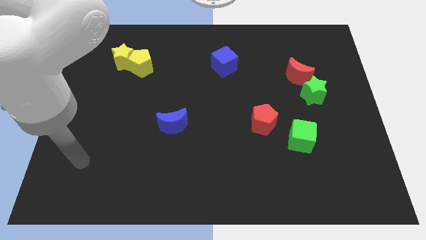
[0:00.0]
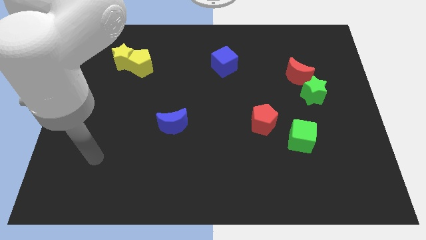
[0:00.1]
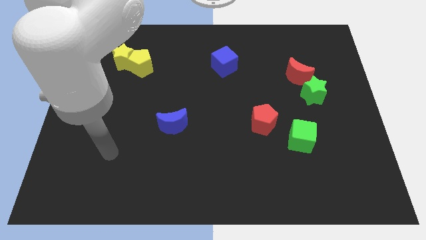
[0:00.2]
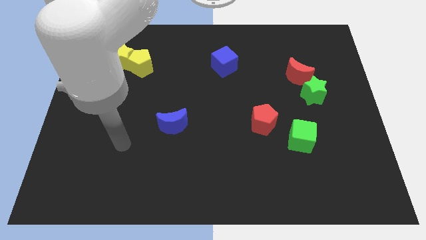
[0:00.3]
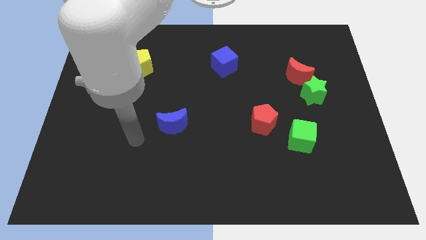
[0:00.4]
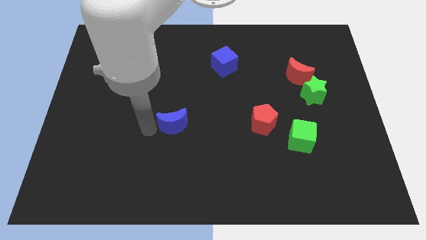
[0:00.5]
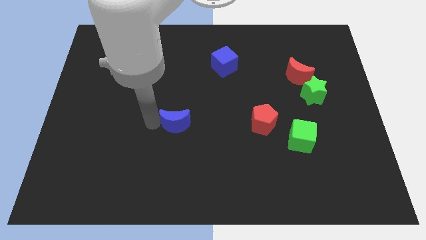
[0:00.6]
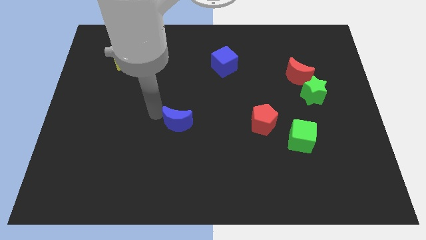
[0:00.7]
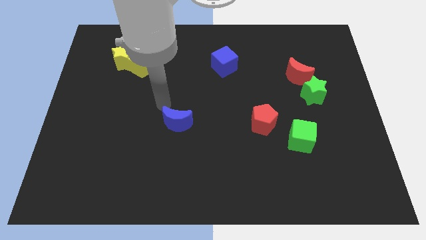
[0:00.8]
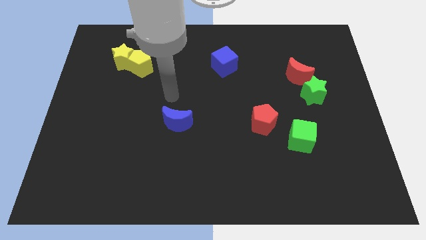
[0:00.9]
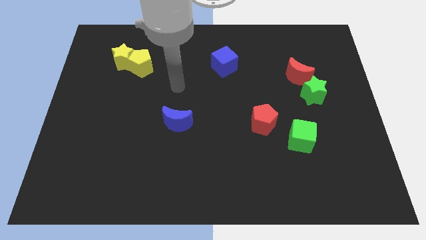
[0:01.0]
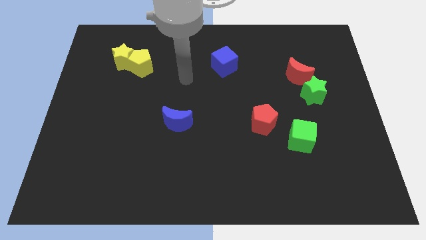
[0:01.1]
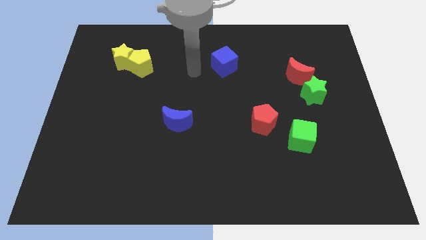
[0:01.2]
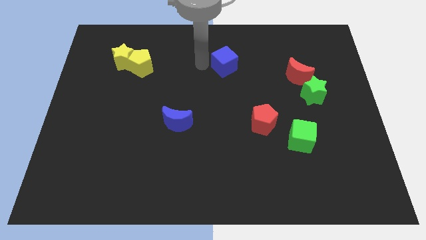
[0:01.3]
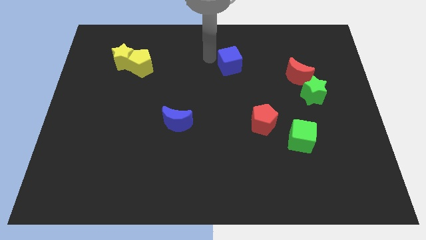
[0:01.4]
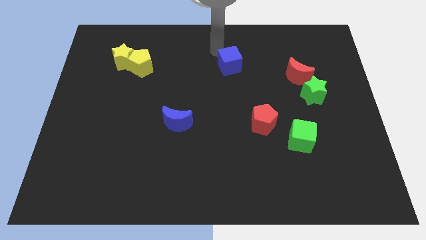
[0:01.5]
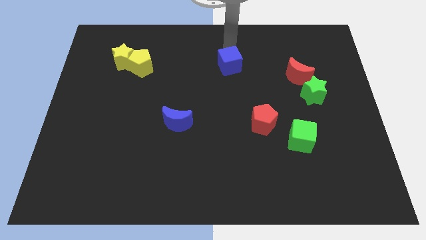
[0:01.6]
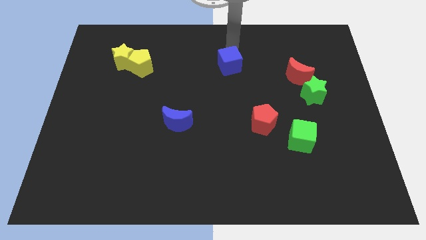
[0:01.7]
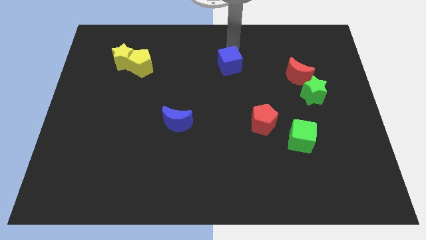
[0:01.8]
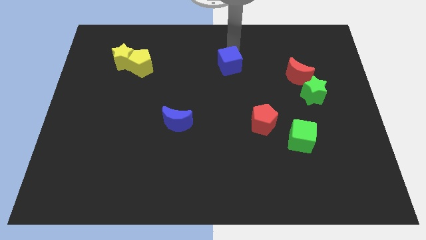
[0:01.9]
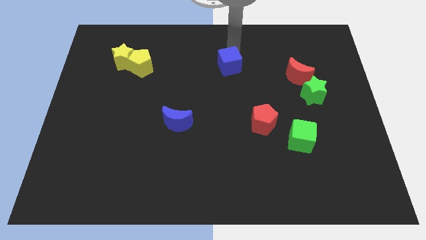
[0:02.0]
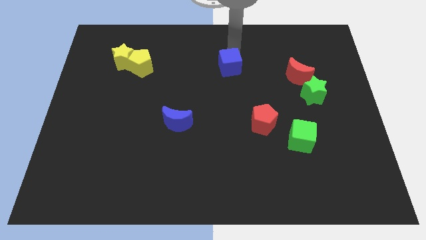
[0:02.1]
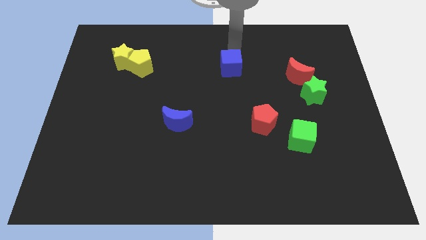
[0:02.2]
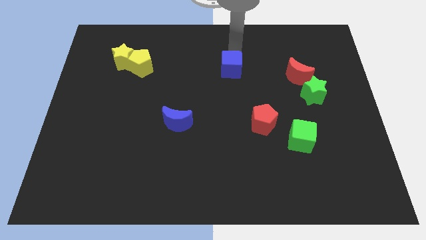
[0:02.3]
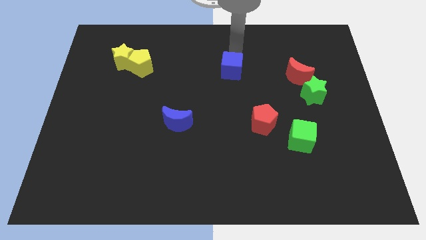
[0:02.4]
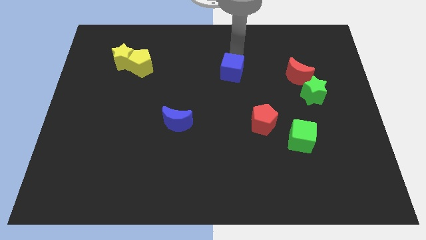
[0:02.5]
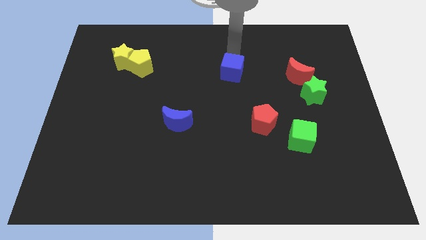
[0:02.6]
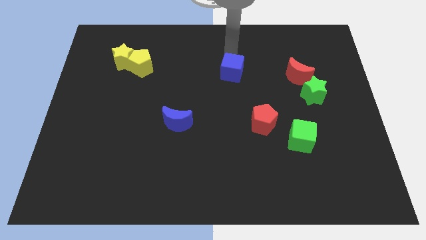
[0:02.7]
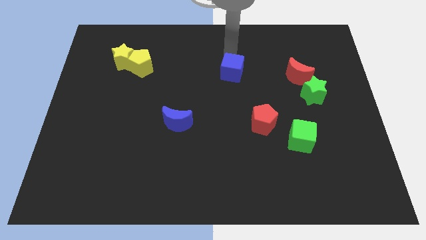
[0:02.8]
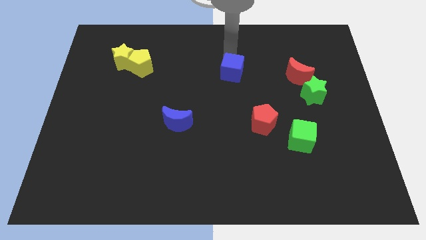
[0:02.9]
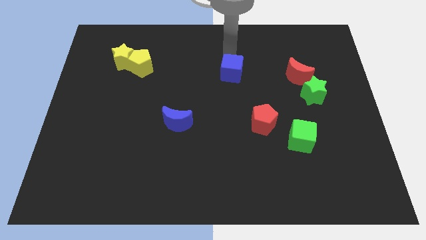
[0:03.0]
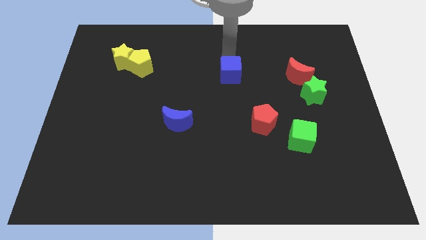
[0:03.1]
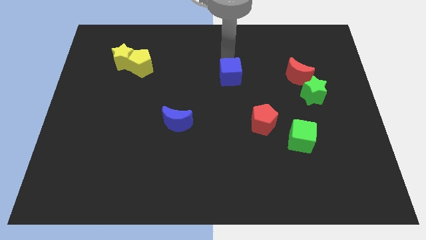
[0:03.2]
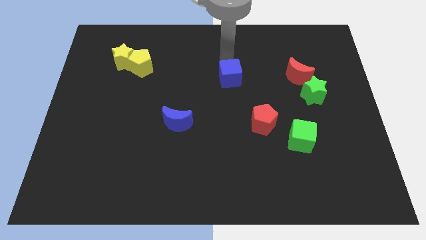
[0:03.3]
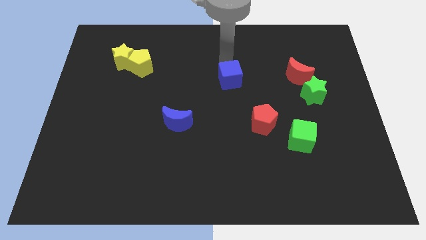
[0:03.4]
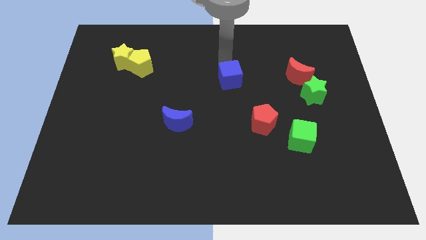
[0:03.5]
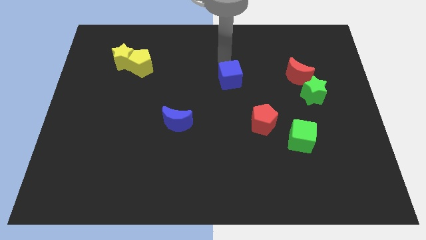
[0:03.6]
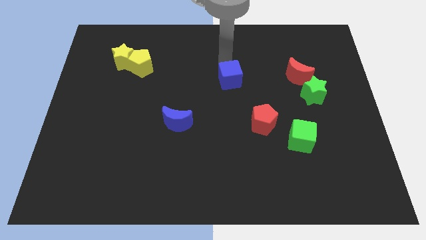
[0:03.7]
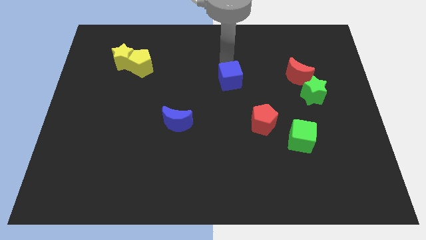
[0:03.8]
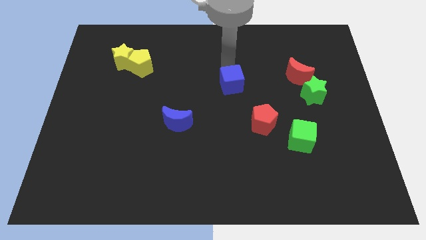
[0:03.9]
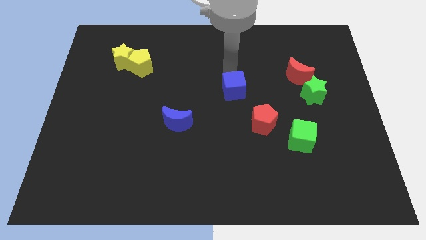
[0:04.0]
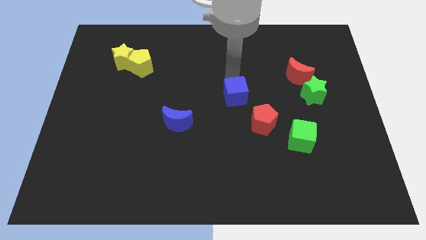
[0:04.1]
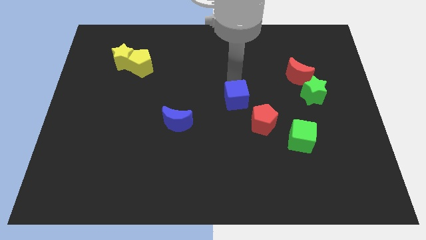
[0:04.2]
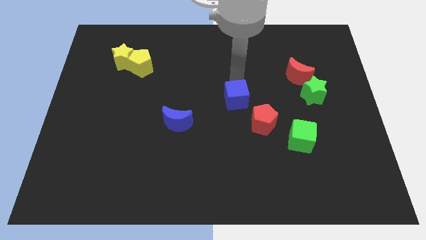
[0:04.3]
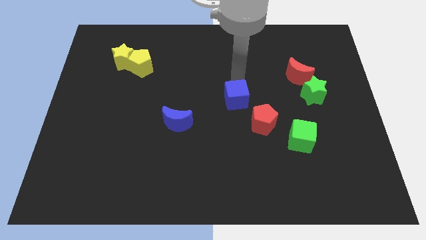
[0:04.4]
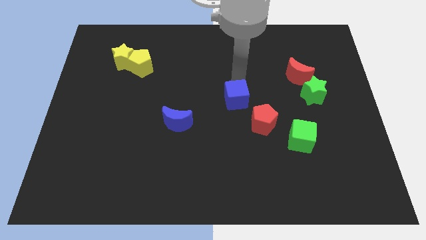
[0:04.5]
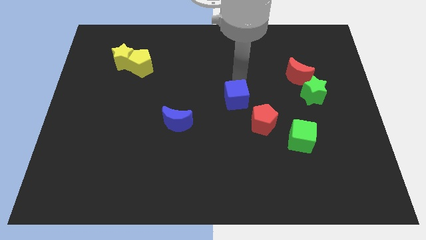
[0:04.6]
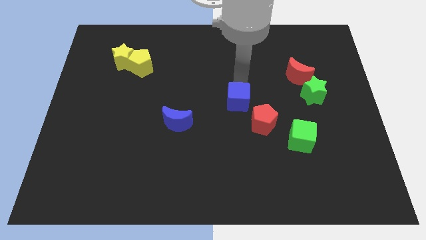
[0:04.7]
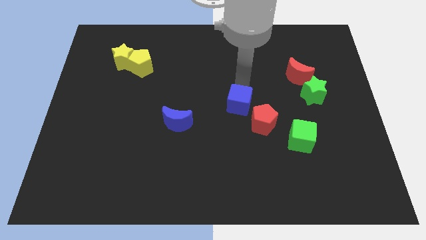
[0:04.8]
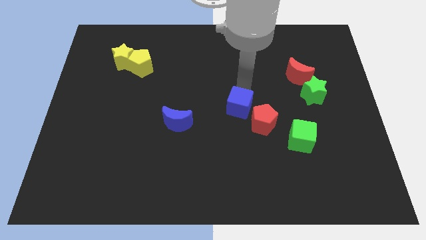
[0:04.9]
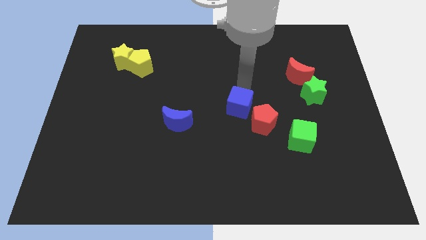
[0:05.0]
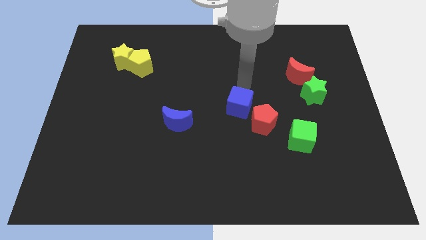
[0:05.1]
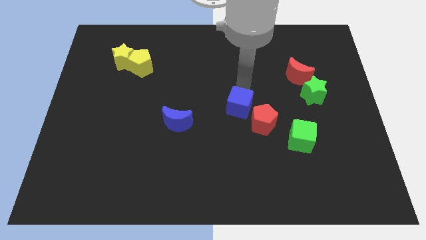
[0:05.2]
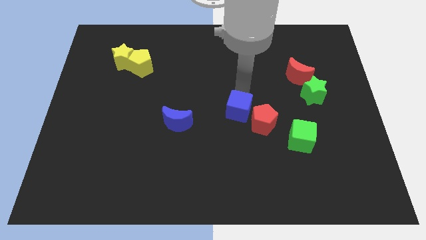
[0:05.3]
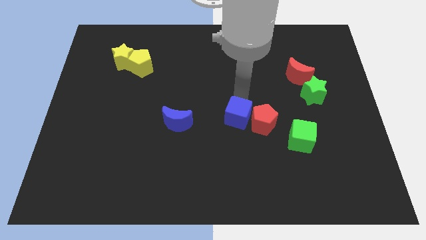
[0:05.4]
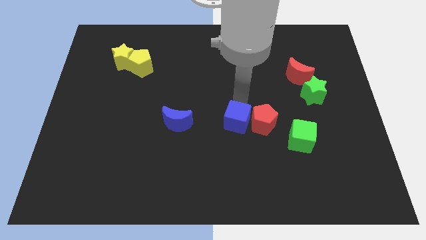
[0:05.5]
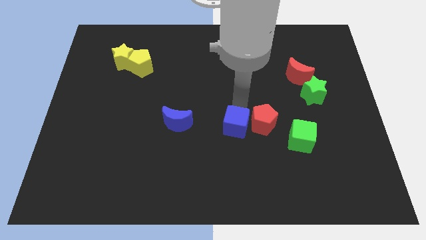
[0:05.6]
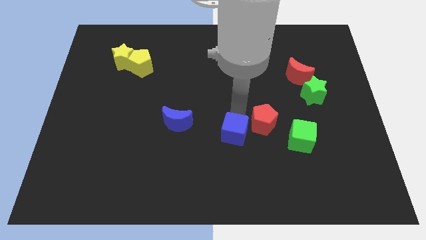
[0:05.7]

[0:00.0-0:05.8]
slide the blue cube downwards

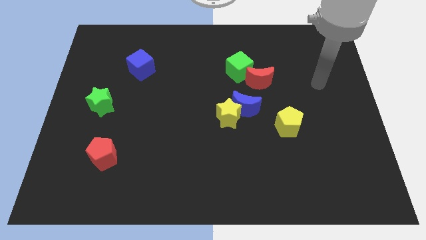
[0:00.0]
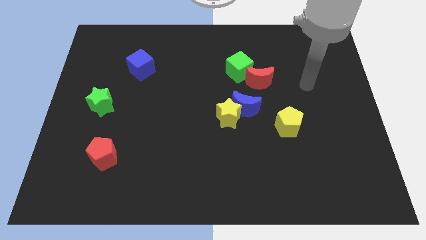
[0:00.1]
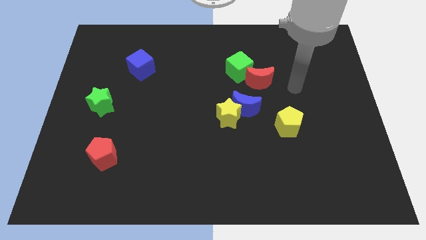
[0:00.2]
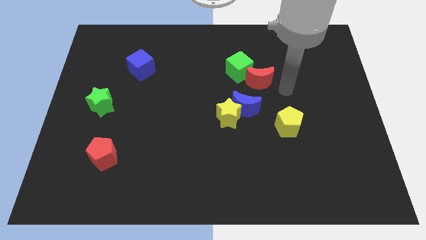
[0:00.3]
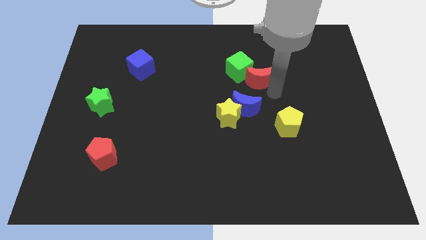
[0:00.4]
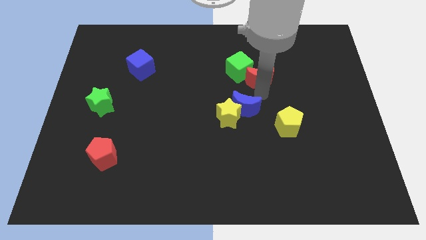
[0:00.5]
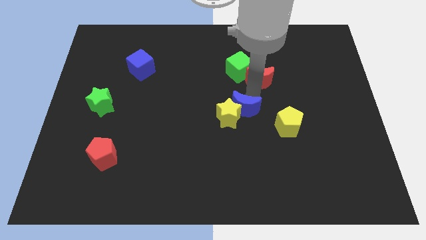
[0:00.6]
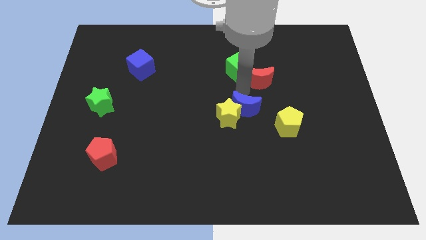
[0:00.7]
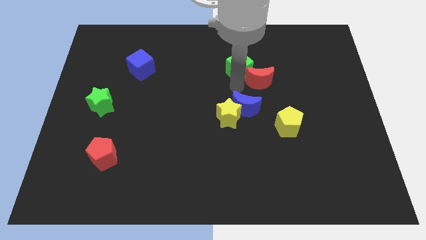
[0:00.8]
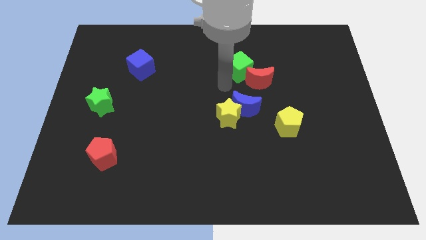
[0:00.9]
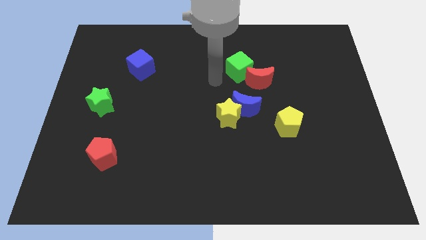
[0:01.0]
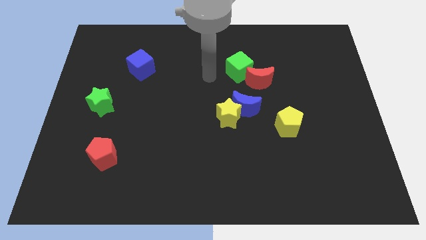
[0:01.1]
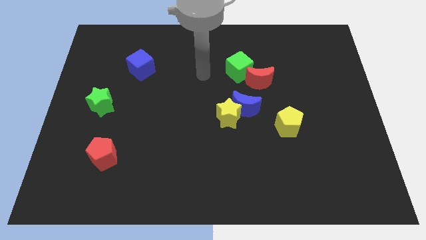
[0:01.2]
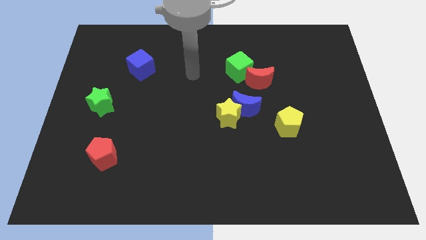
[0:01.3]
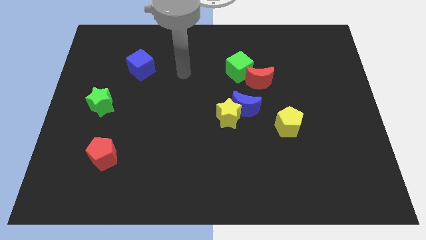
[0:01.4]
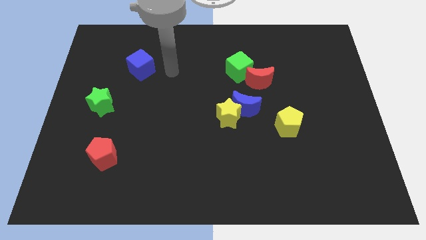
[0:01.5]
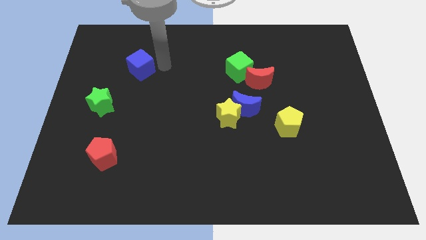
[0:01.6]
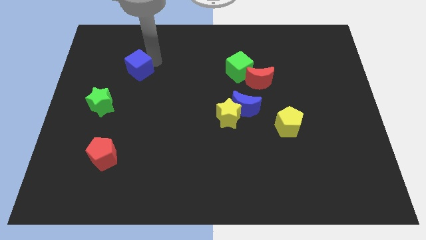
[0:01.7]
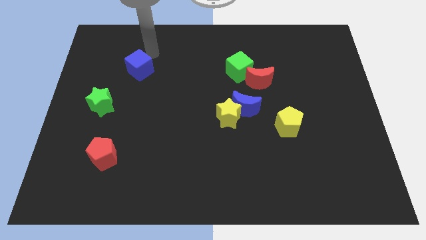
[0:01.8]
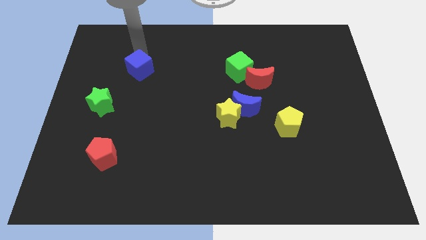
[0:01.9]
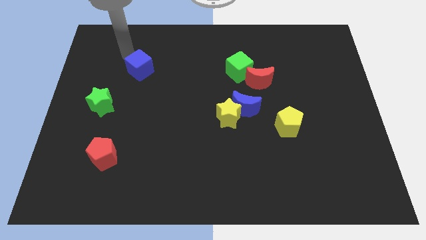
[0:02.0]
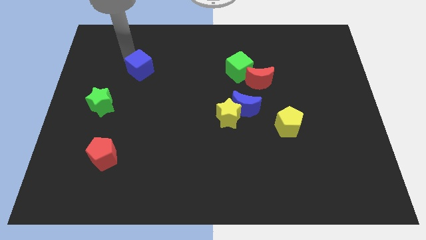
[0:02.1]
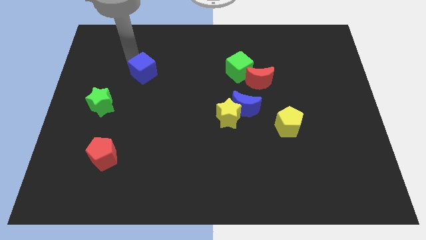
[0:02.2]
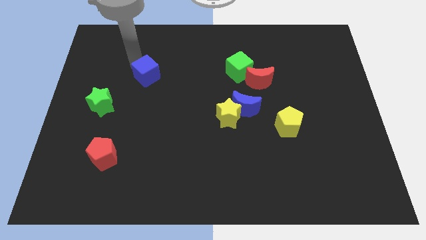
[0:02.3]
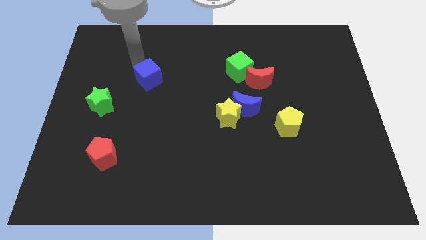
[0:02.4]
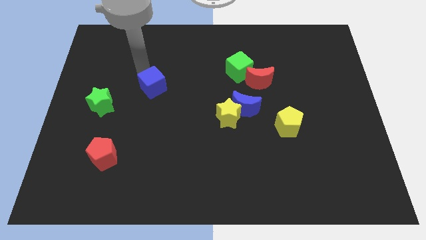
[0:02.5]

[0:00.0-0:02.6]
push the blue cube diagonally down and to the right a little bit
